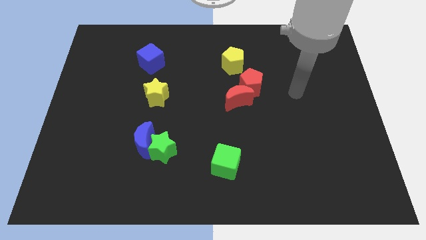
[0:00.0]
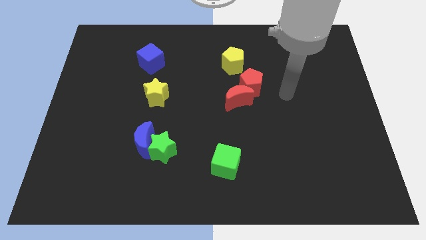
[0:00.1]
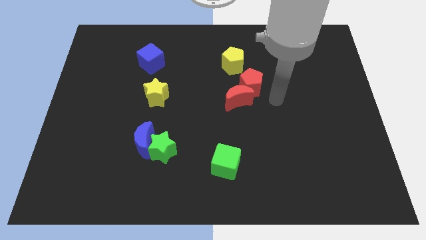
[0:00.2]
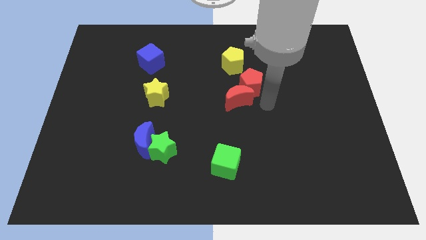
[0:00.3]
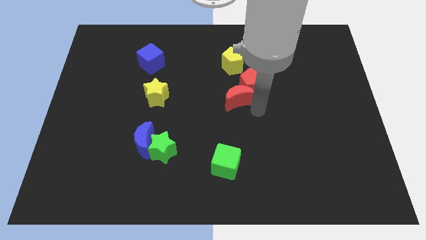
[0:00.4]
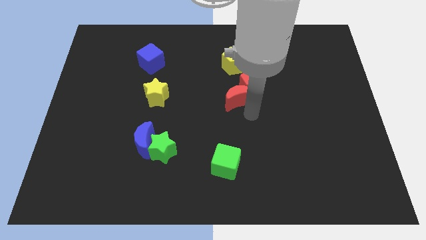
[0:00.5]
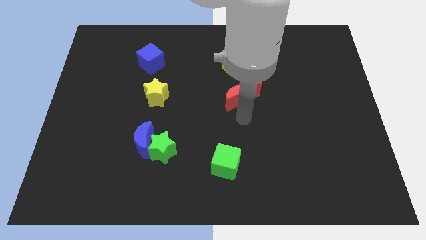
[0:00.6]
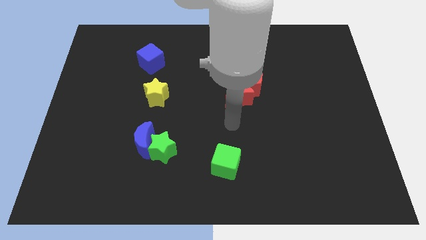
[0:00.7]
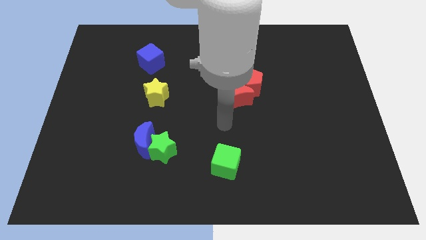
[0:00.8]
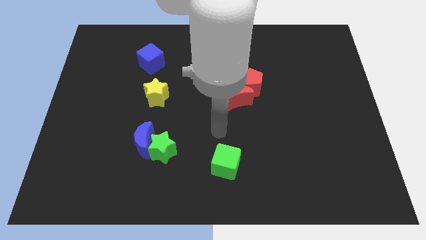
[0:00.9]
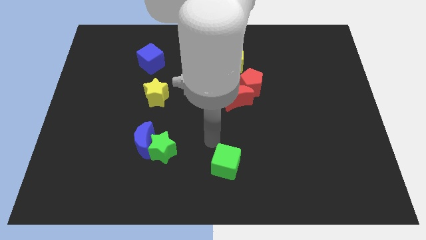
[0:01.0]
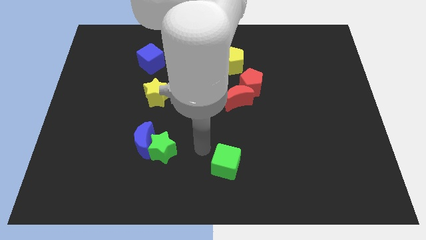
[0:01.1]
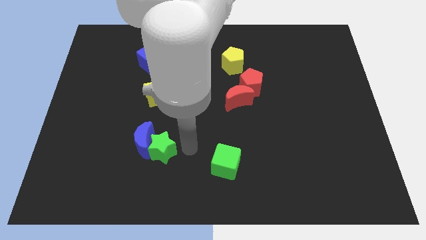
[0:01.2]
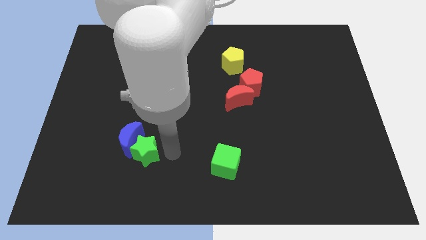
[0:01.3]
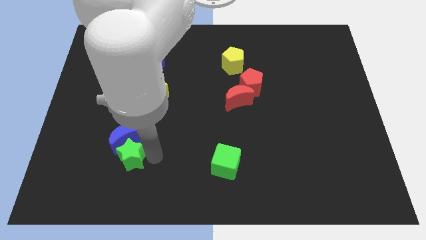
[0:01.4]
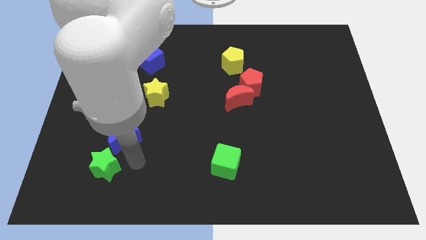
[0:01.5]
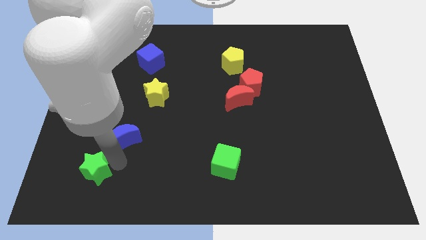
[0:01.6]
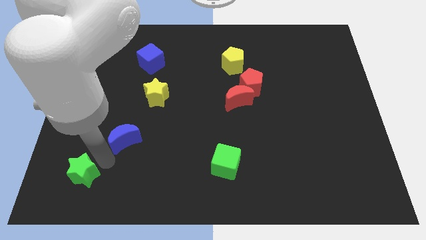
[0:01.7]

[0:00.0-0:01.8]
move the blue moon away from the green star

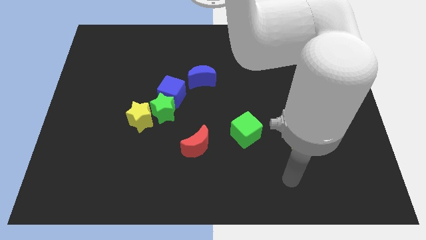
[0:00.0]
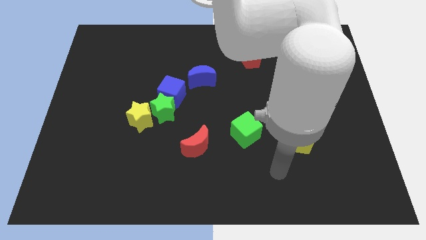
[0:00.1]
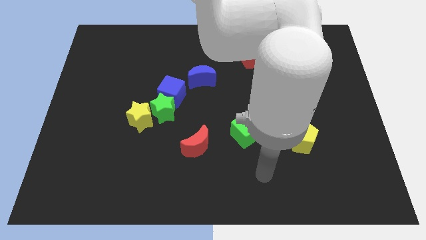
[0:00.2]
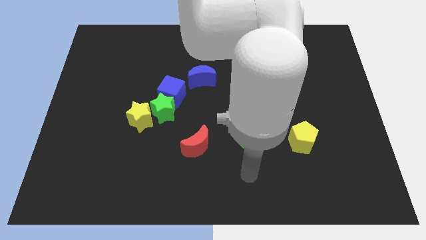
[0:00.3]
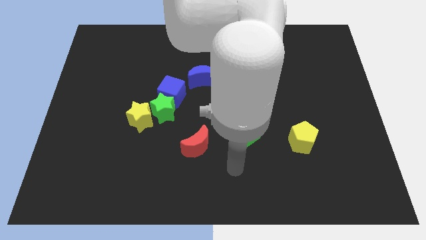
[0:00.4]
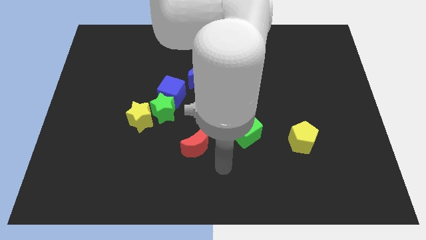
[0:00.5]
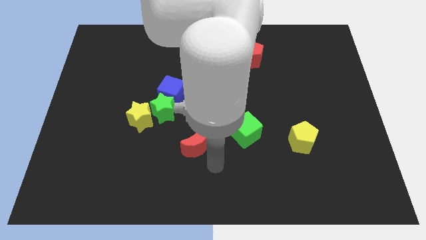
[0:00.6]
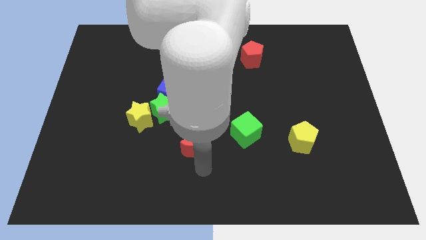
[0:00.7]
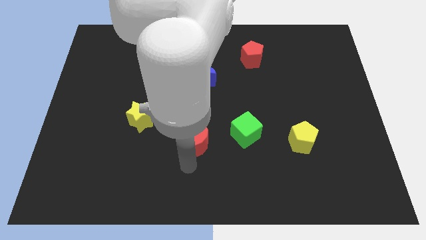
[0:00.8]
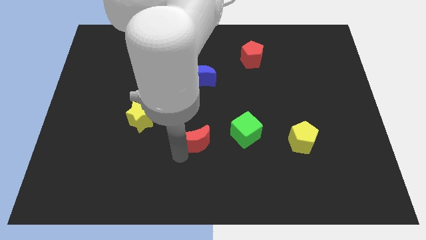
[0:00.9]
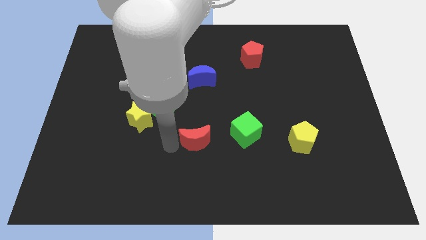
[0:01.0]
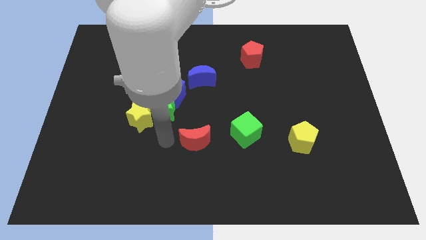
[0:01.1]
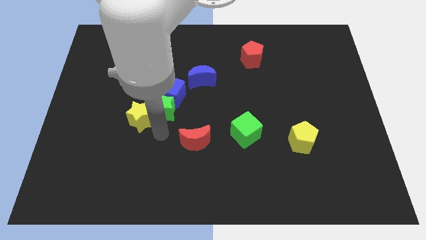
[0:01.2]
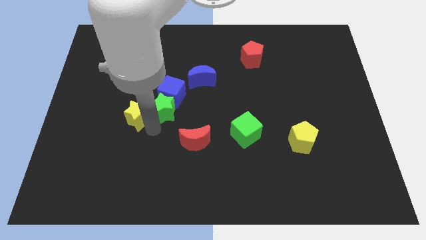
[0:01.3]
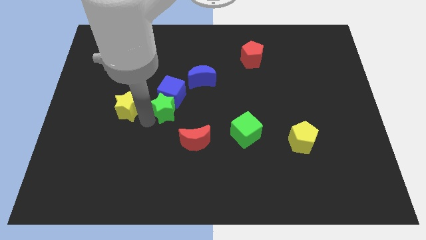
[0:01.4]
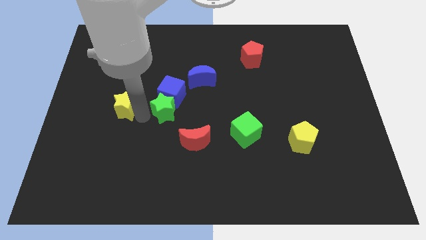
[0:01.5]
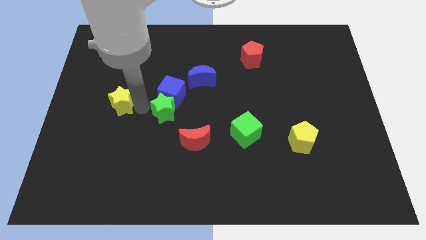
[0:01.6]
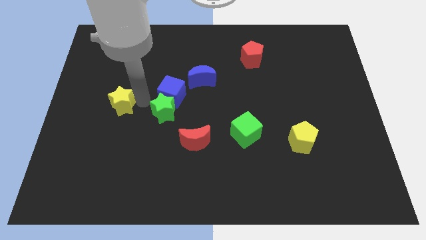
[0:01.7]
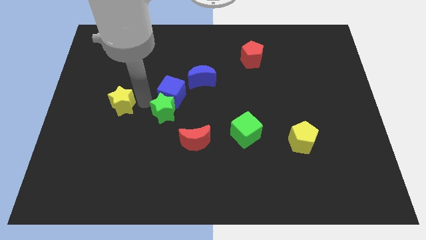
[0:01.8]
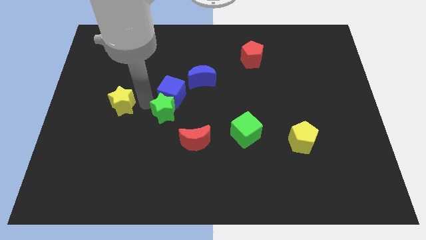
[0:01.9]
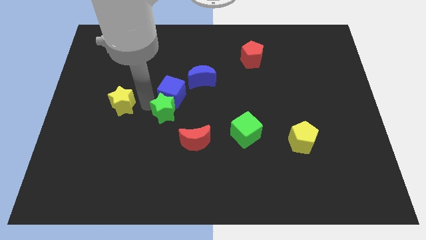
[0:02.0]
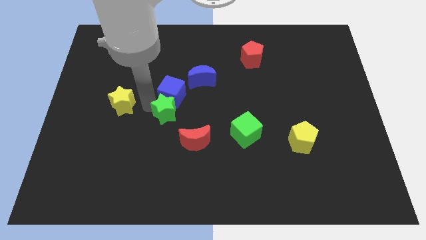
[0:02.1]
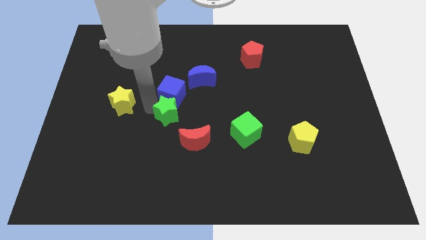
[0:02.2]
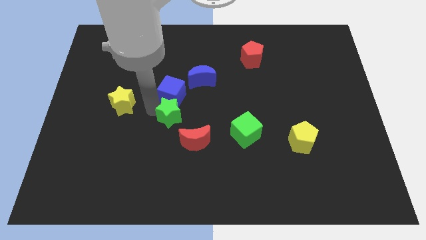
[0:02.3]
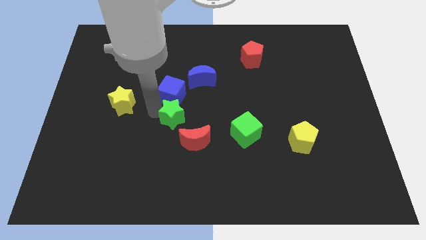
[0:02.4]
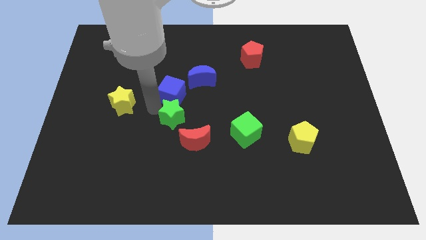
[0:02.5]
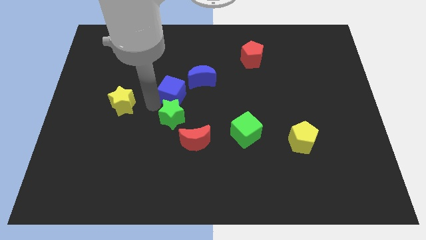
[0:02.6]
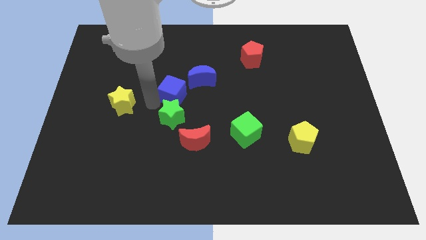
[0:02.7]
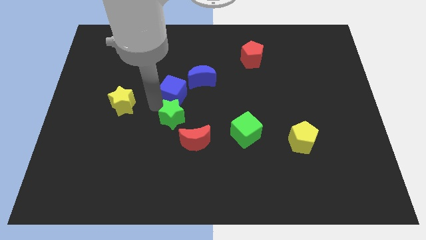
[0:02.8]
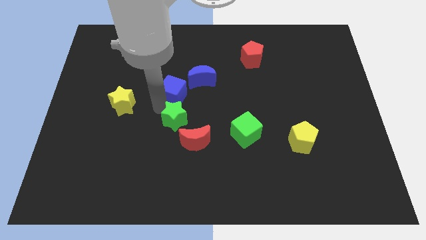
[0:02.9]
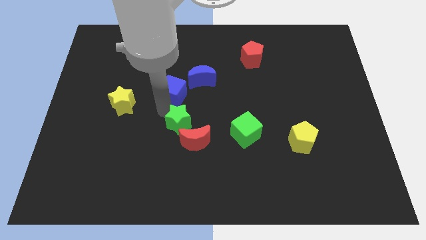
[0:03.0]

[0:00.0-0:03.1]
move the green star away from the blue cube and yellow star

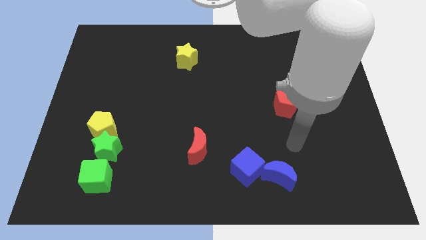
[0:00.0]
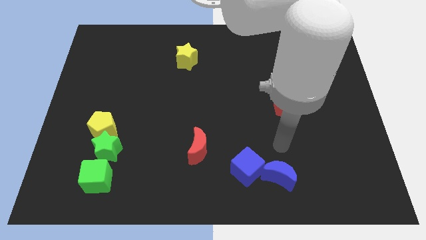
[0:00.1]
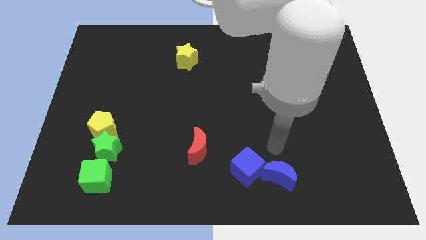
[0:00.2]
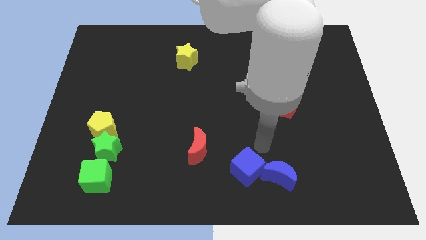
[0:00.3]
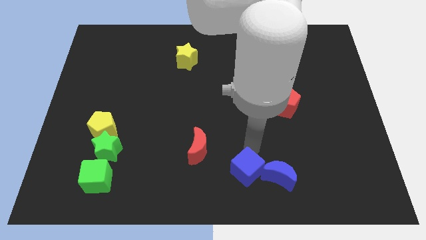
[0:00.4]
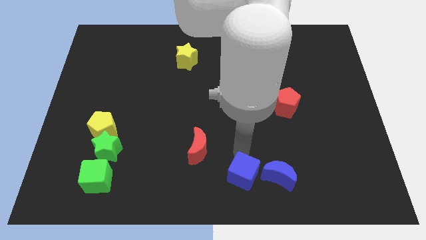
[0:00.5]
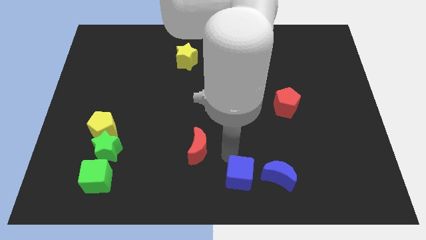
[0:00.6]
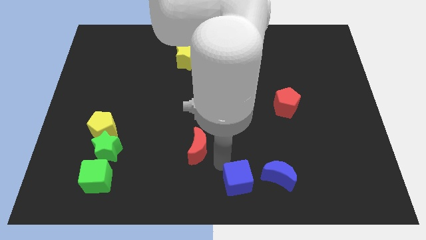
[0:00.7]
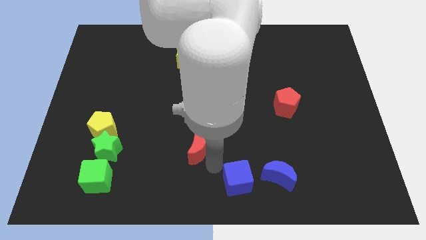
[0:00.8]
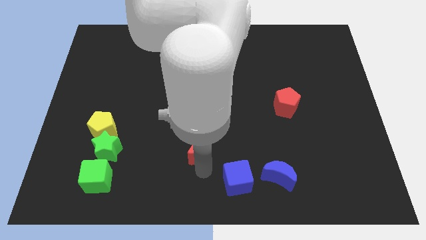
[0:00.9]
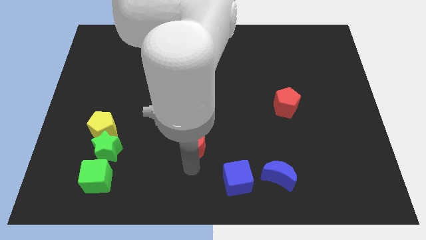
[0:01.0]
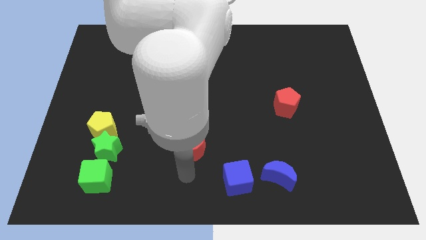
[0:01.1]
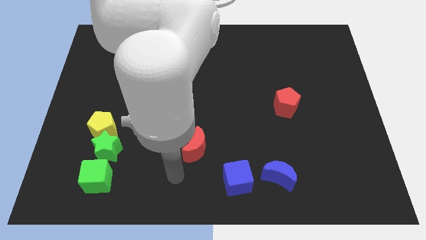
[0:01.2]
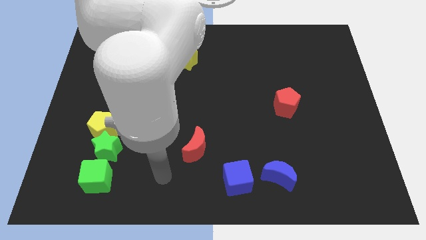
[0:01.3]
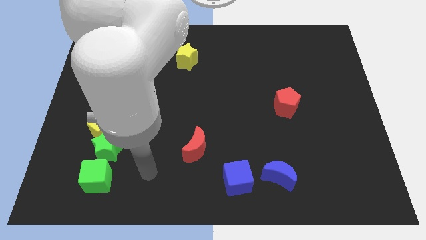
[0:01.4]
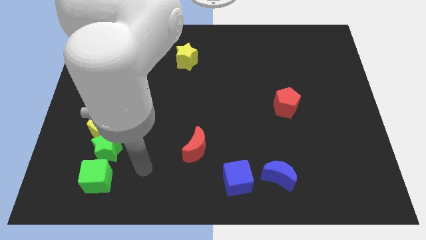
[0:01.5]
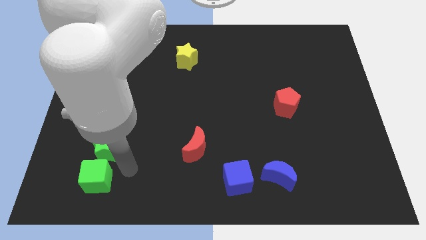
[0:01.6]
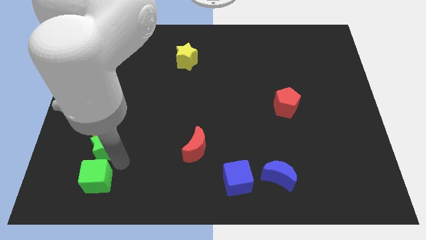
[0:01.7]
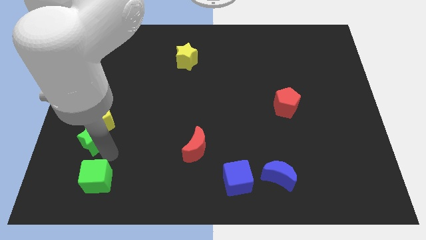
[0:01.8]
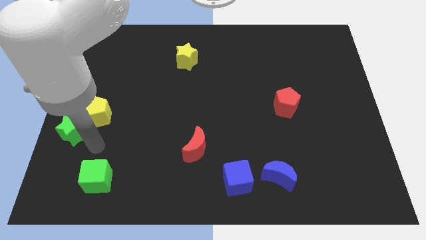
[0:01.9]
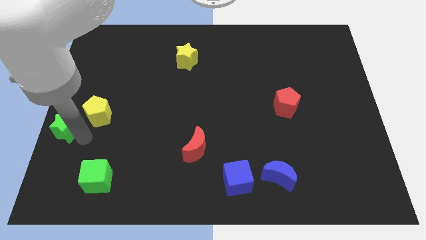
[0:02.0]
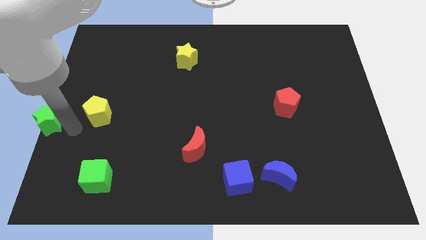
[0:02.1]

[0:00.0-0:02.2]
move the yellow pentagon away from the green star

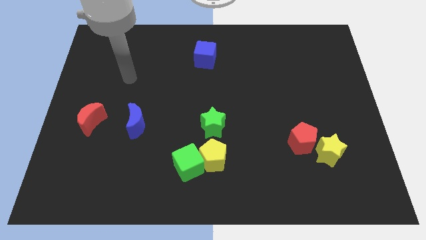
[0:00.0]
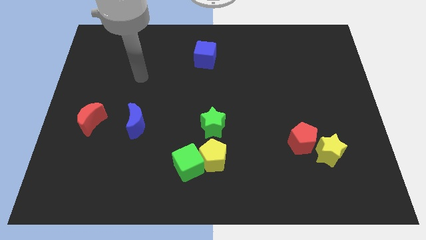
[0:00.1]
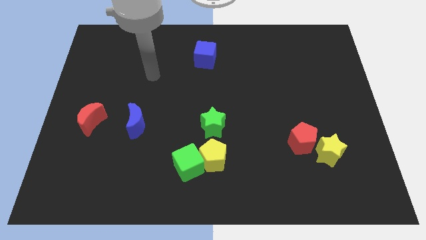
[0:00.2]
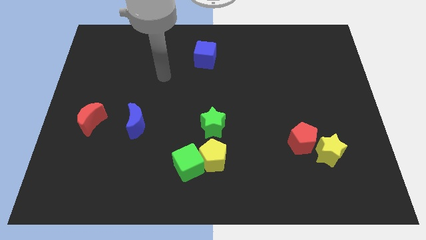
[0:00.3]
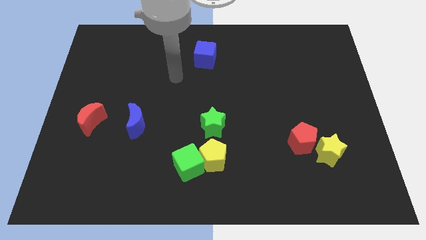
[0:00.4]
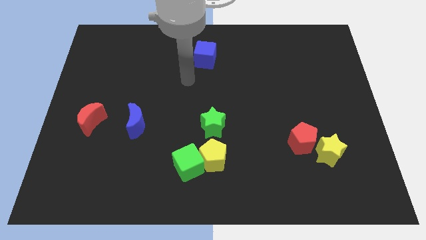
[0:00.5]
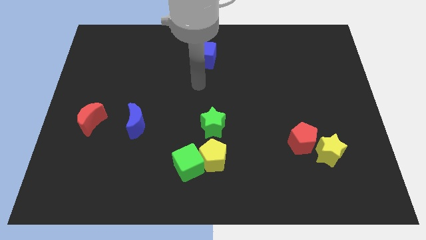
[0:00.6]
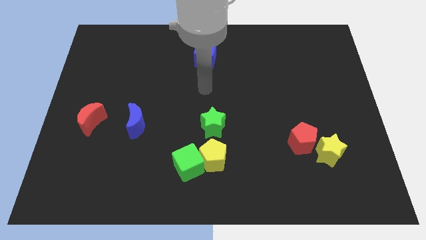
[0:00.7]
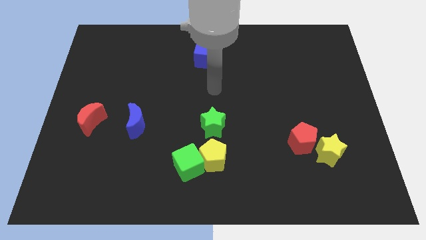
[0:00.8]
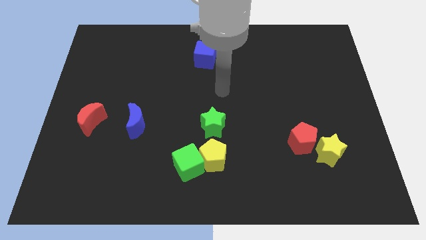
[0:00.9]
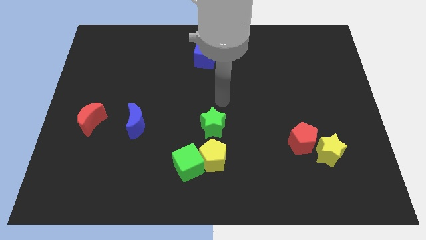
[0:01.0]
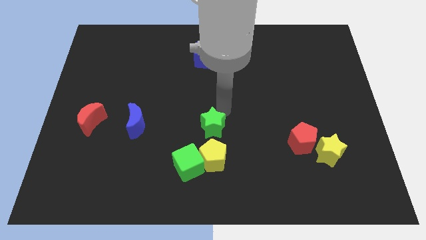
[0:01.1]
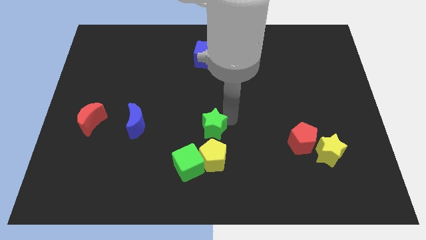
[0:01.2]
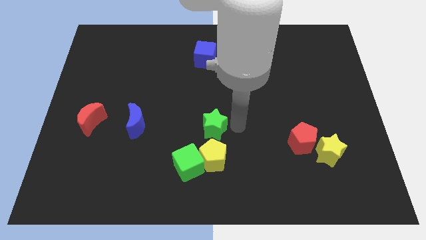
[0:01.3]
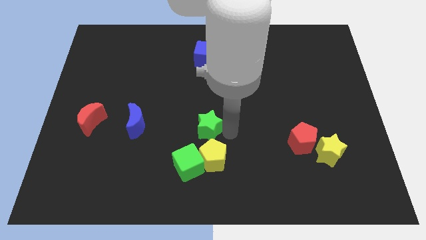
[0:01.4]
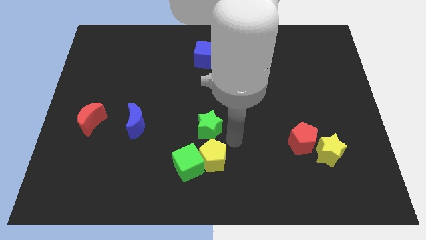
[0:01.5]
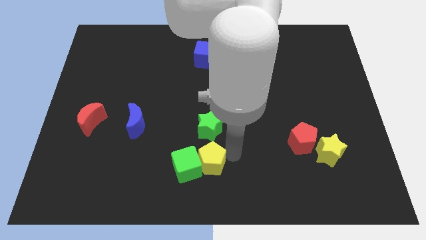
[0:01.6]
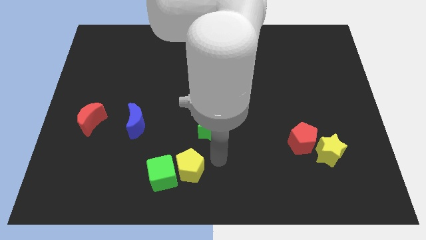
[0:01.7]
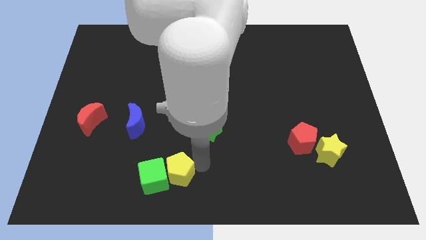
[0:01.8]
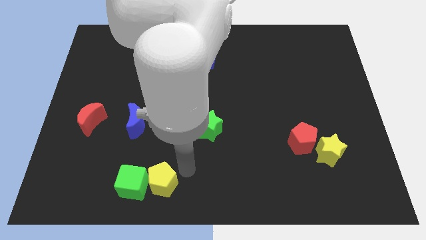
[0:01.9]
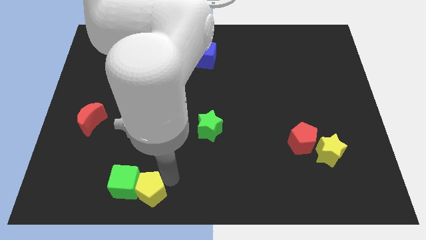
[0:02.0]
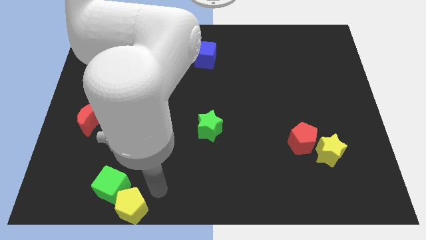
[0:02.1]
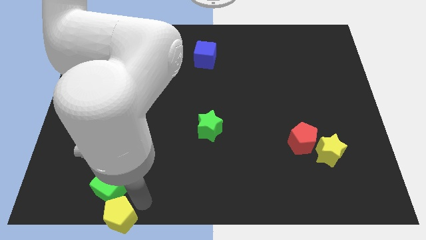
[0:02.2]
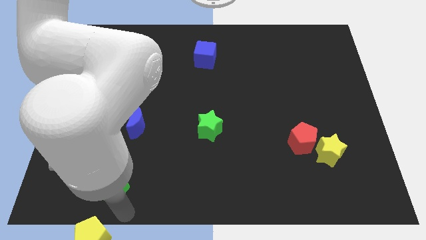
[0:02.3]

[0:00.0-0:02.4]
separate the green cube from the yellow pentagon
